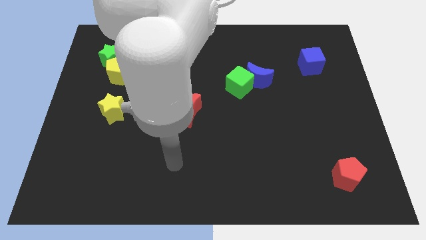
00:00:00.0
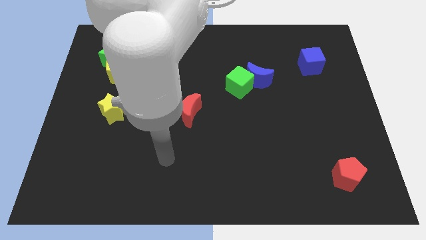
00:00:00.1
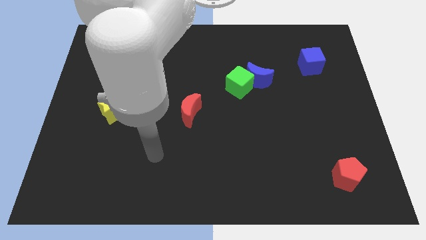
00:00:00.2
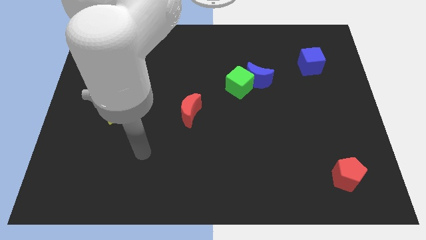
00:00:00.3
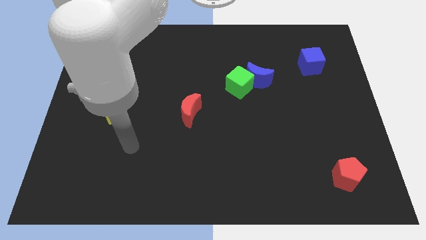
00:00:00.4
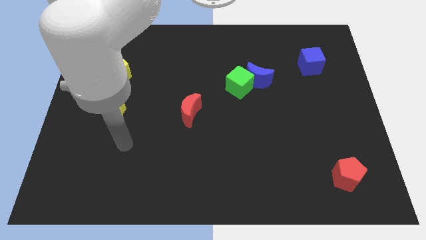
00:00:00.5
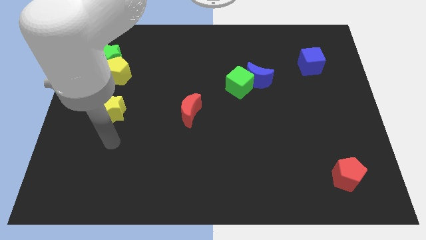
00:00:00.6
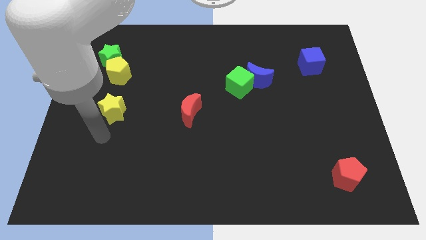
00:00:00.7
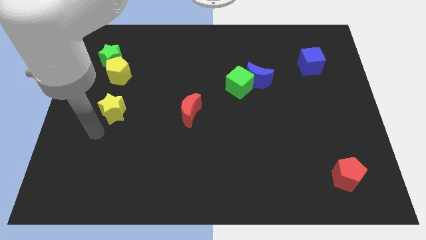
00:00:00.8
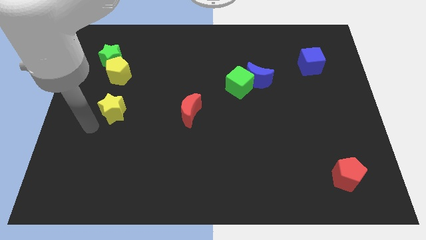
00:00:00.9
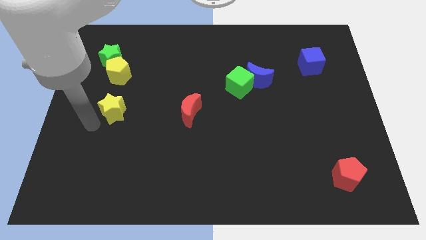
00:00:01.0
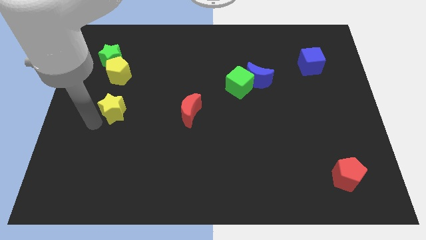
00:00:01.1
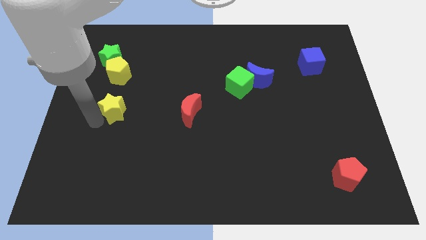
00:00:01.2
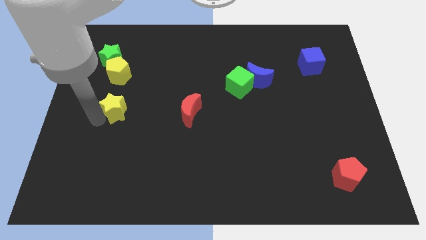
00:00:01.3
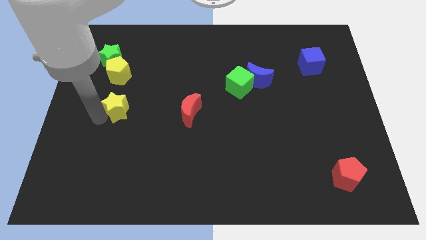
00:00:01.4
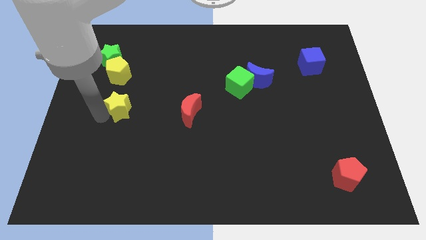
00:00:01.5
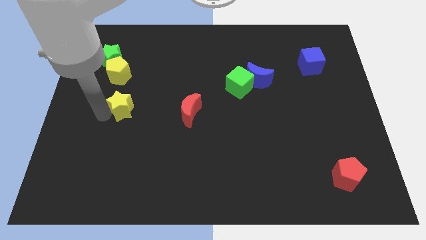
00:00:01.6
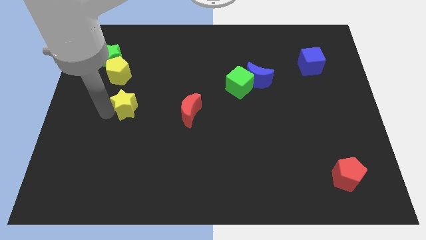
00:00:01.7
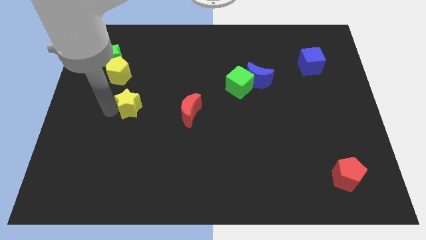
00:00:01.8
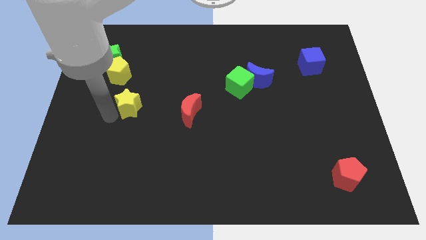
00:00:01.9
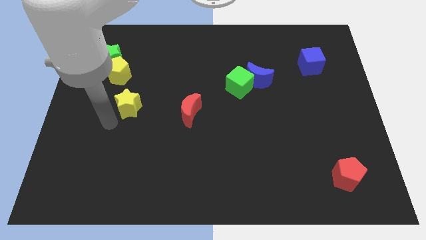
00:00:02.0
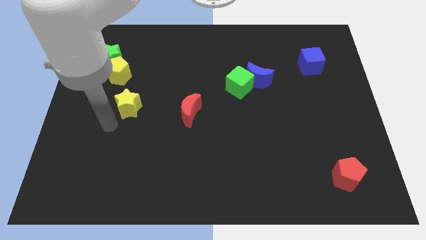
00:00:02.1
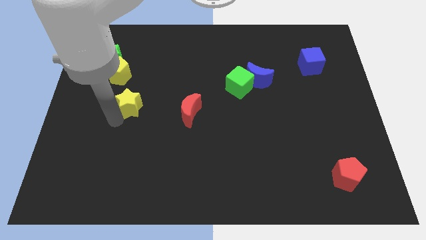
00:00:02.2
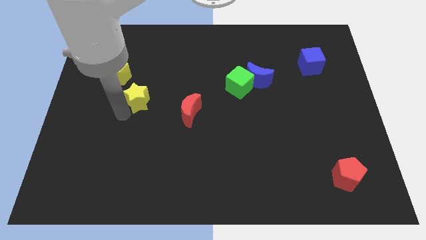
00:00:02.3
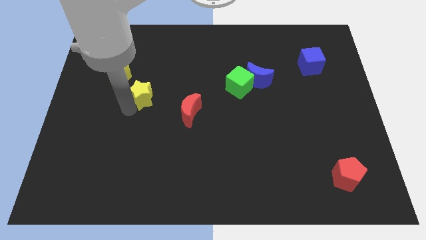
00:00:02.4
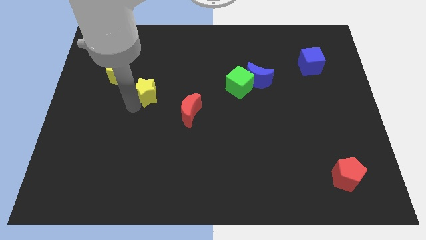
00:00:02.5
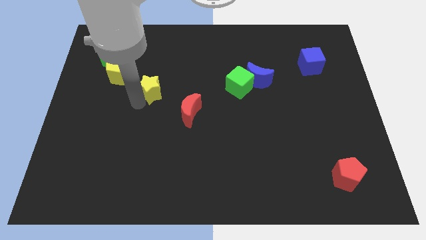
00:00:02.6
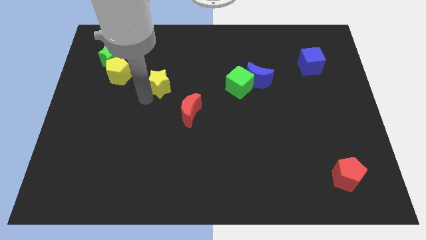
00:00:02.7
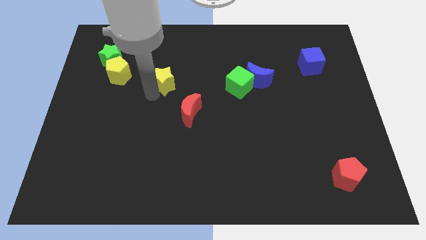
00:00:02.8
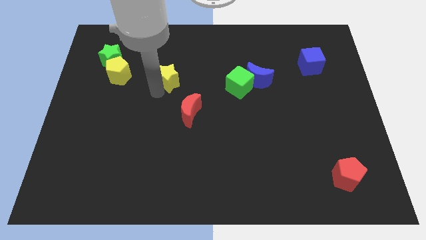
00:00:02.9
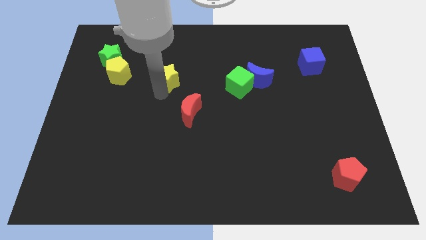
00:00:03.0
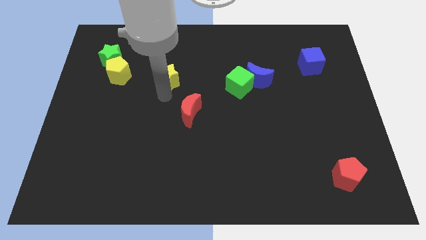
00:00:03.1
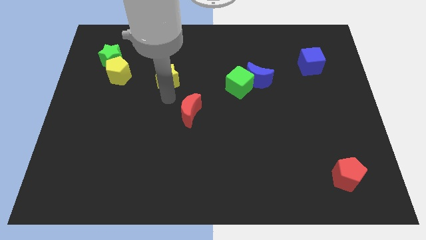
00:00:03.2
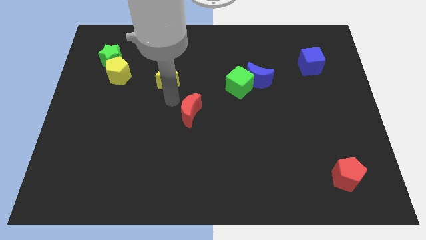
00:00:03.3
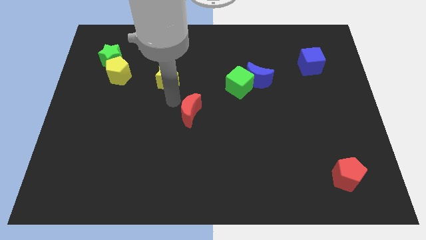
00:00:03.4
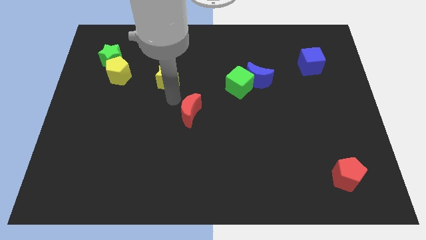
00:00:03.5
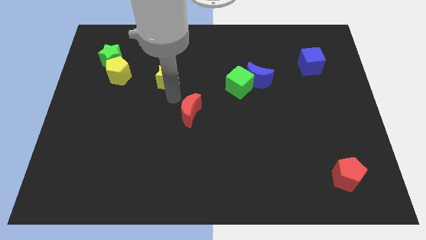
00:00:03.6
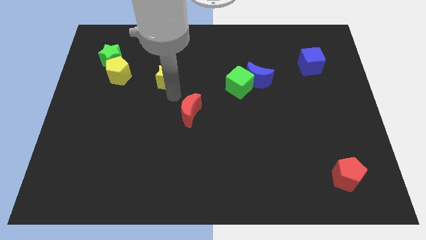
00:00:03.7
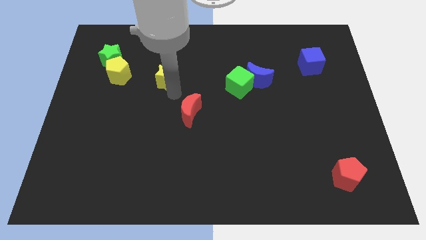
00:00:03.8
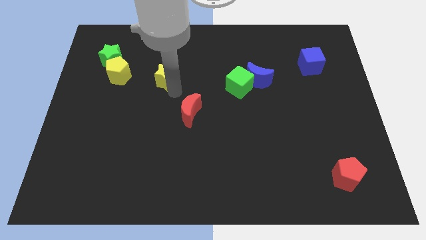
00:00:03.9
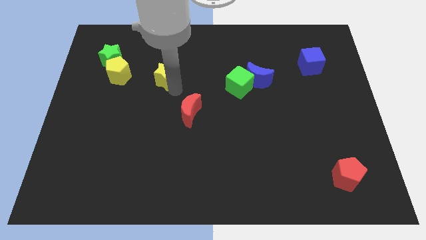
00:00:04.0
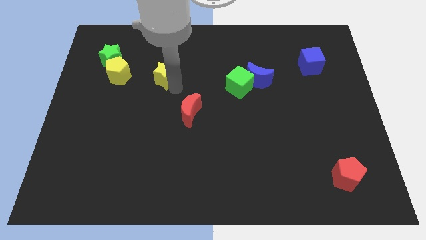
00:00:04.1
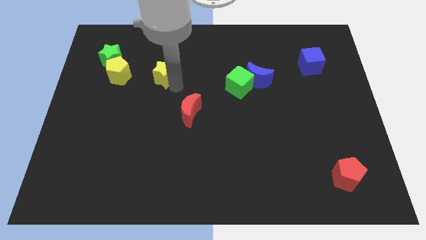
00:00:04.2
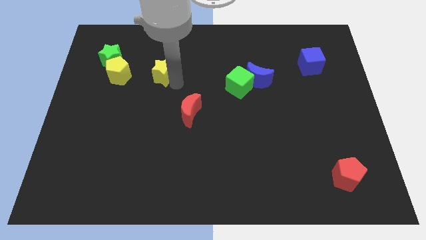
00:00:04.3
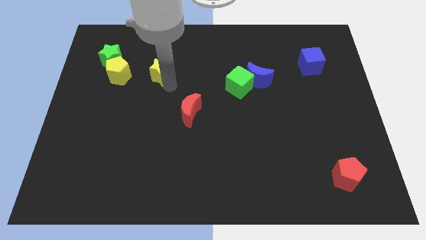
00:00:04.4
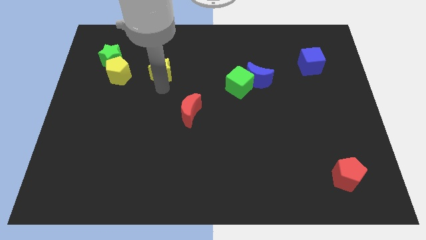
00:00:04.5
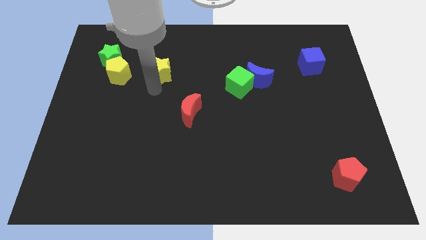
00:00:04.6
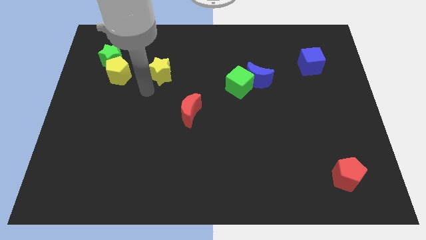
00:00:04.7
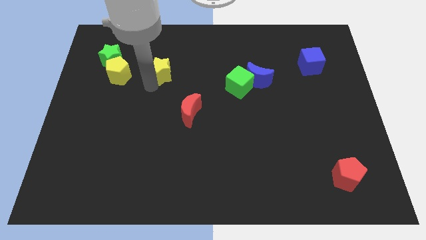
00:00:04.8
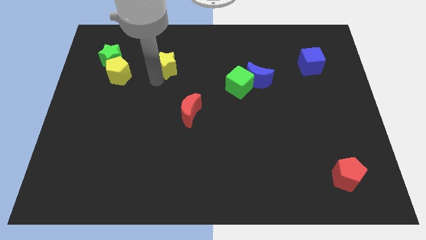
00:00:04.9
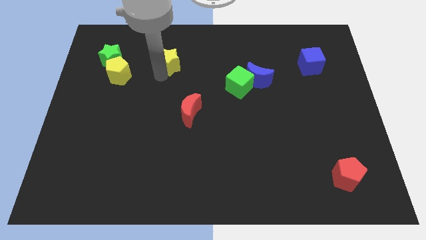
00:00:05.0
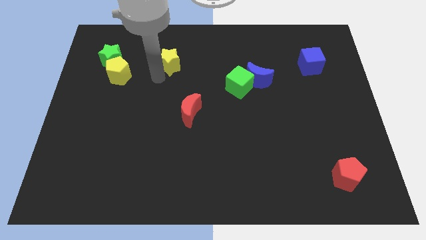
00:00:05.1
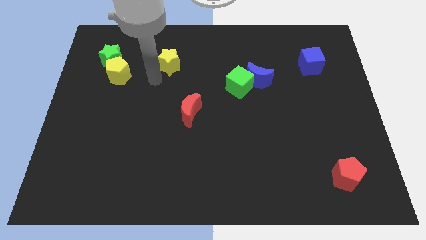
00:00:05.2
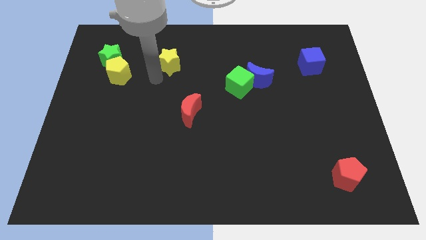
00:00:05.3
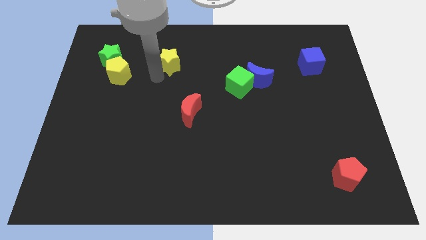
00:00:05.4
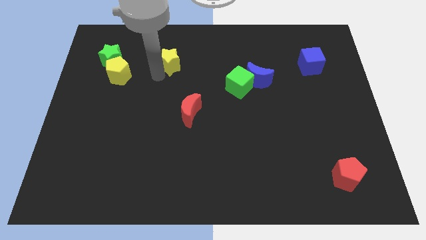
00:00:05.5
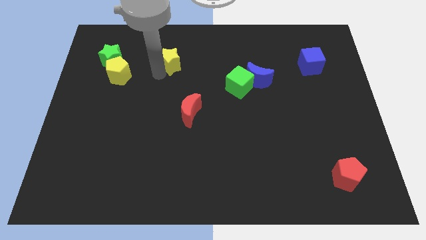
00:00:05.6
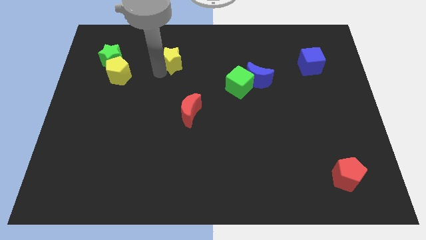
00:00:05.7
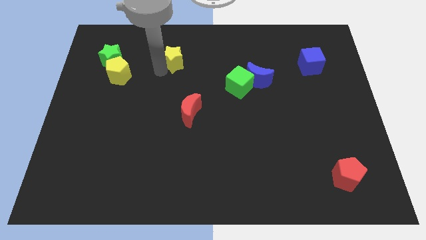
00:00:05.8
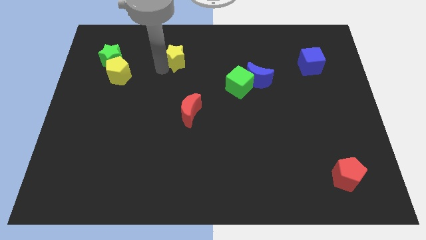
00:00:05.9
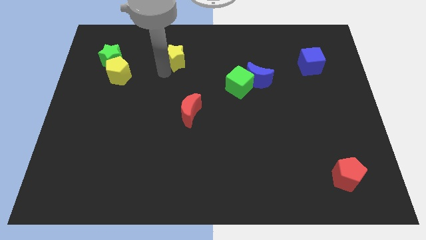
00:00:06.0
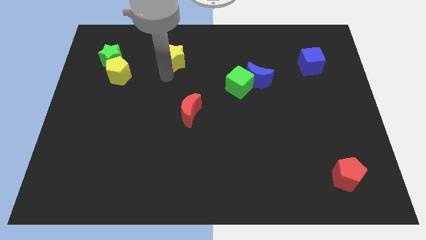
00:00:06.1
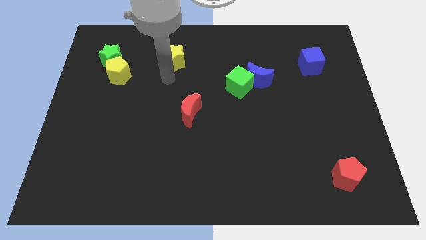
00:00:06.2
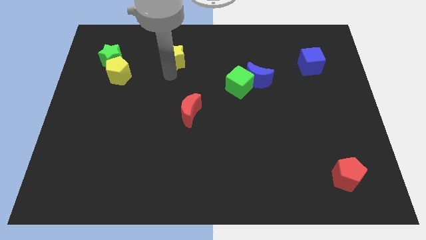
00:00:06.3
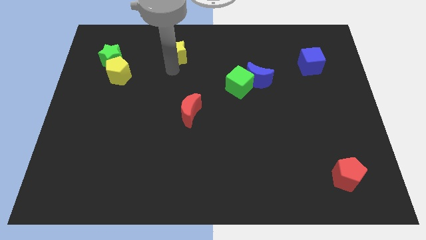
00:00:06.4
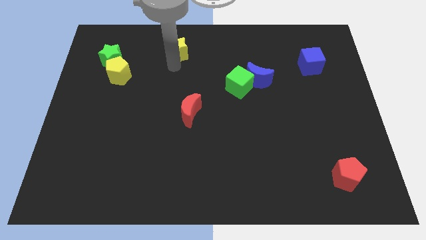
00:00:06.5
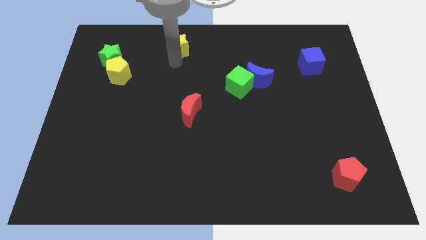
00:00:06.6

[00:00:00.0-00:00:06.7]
push the yellow star to the top
